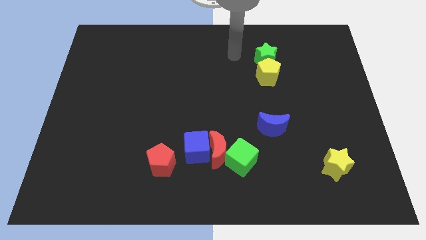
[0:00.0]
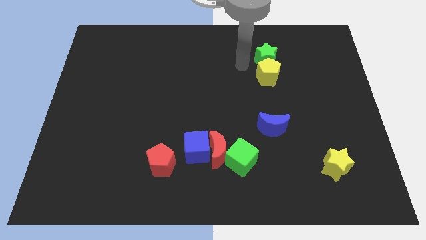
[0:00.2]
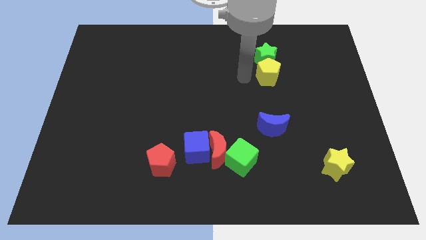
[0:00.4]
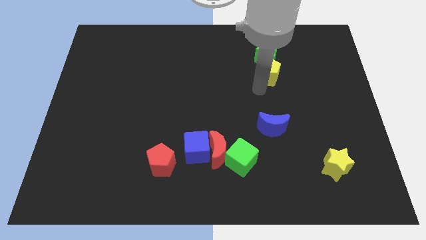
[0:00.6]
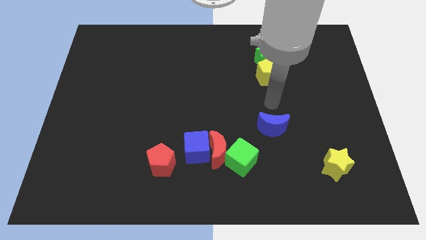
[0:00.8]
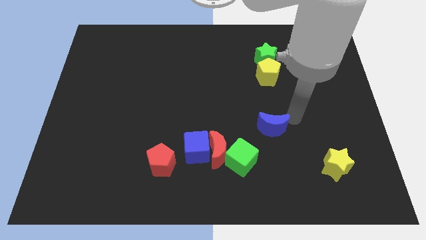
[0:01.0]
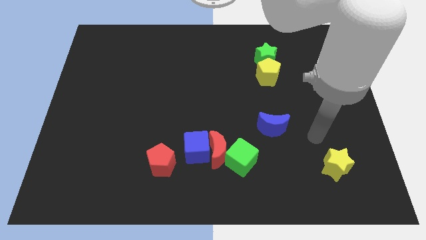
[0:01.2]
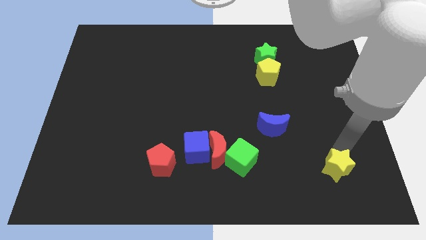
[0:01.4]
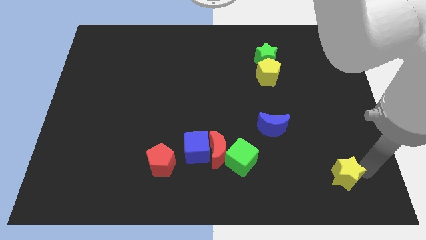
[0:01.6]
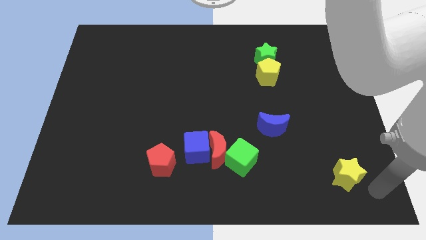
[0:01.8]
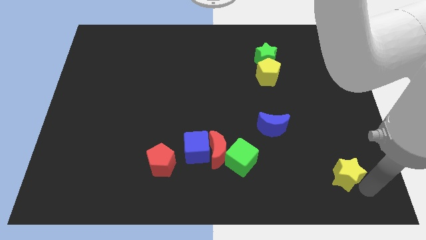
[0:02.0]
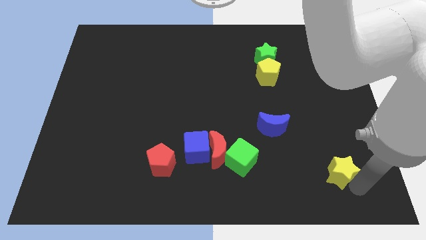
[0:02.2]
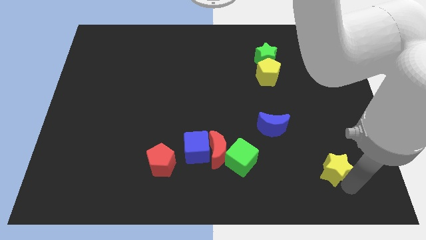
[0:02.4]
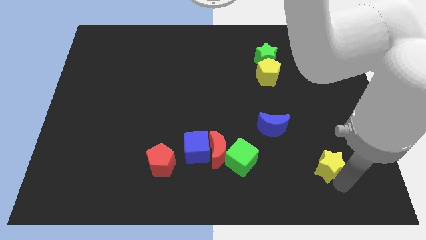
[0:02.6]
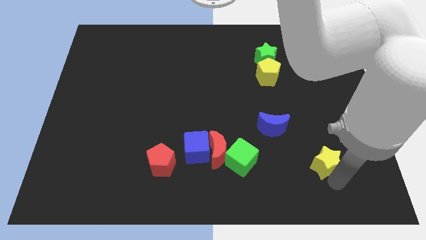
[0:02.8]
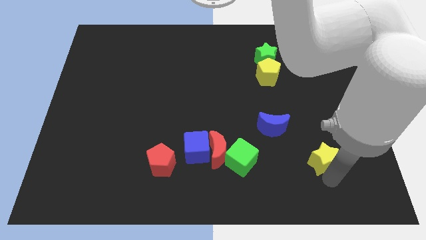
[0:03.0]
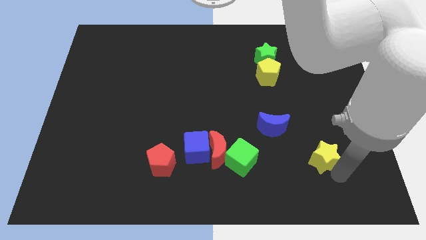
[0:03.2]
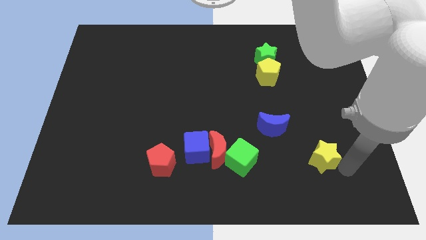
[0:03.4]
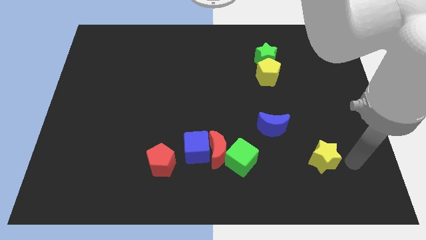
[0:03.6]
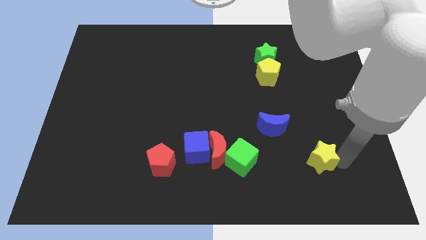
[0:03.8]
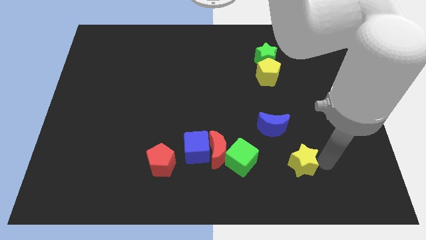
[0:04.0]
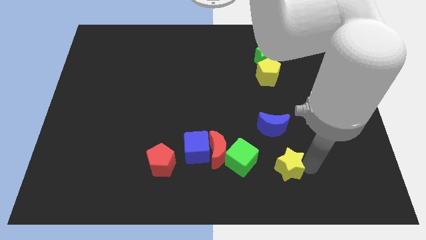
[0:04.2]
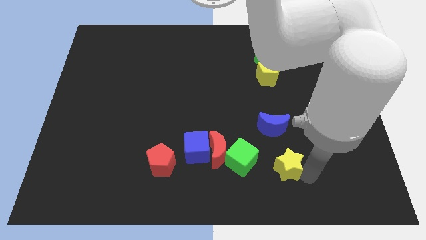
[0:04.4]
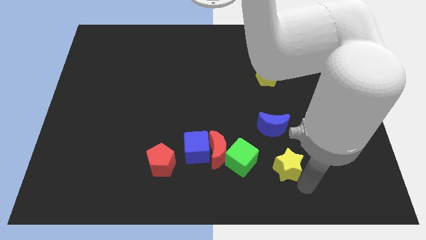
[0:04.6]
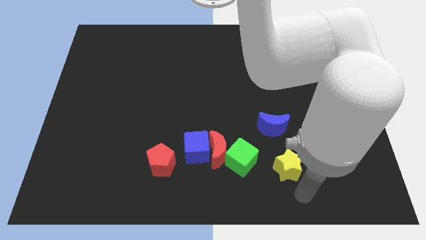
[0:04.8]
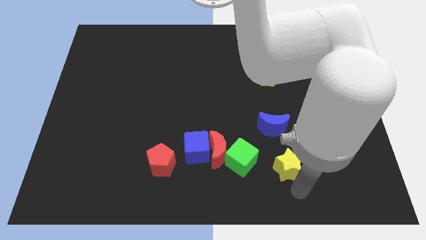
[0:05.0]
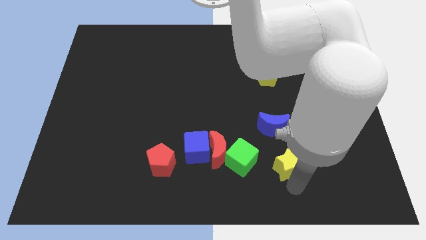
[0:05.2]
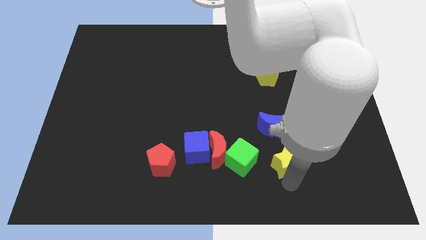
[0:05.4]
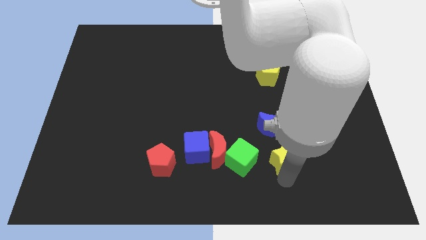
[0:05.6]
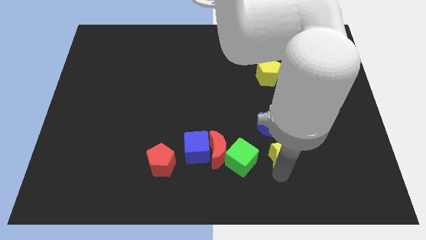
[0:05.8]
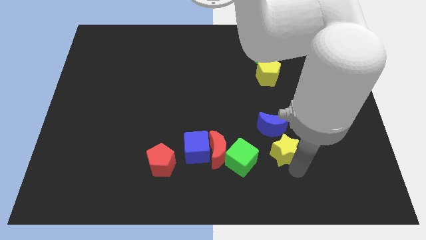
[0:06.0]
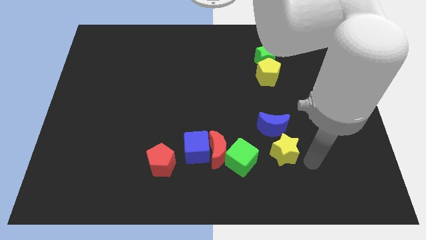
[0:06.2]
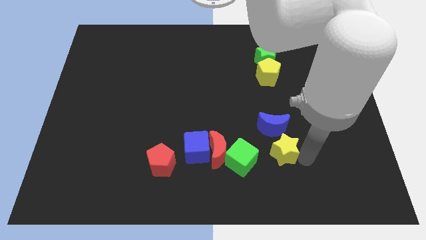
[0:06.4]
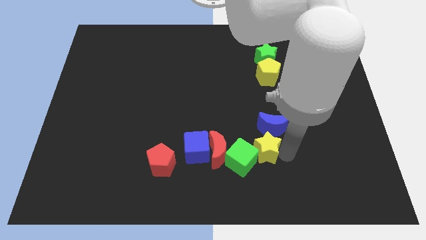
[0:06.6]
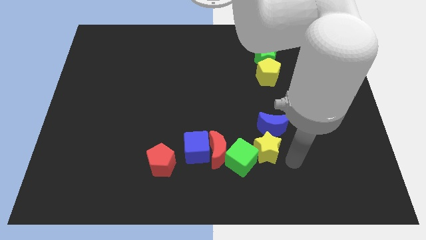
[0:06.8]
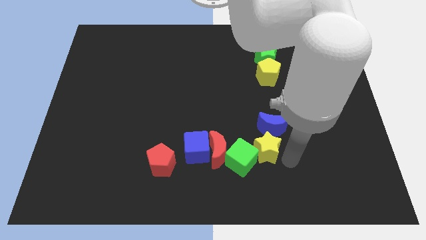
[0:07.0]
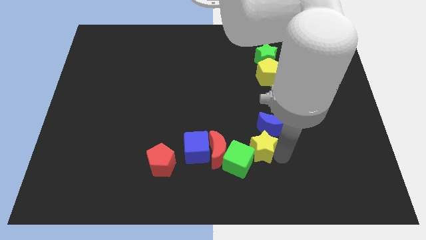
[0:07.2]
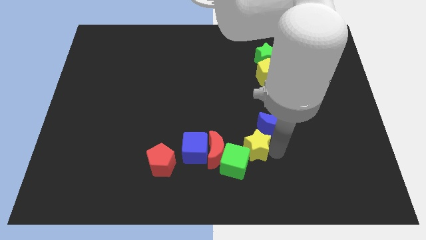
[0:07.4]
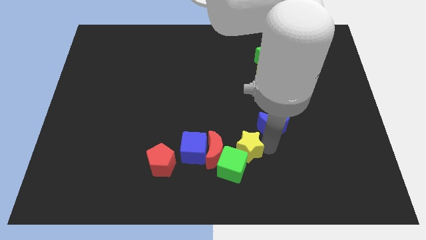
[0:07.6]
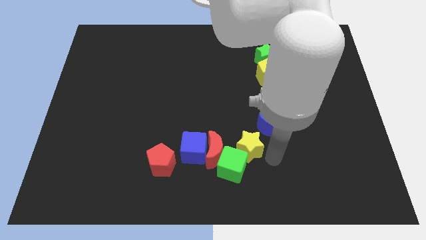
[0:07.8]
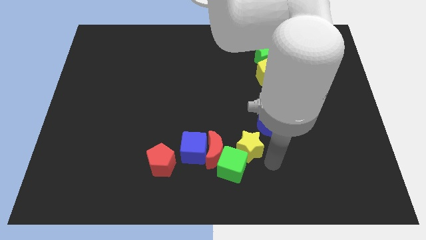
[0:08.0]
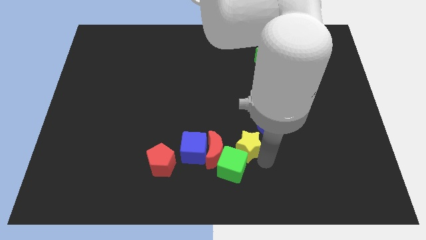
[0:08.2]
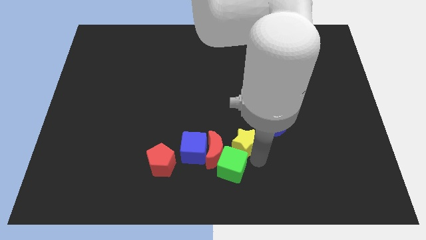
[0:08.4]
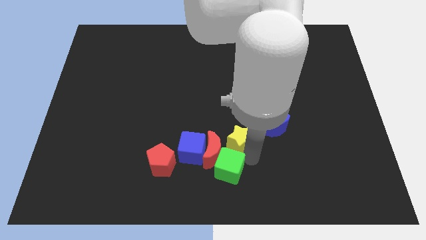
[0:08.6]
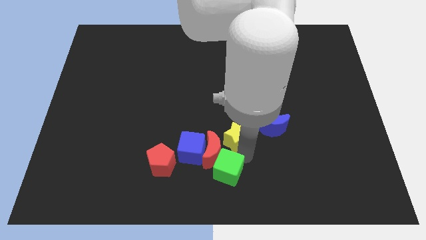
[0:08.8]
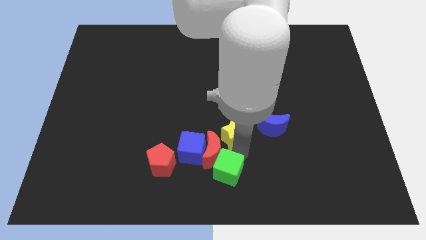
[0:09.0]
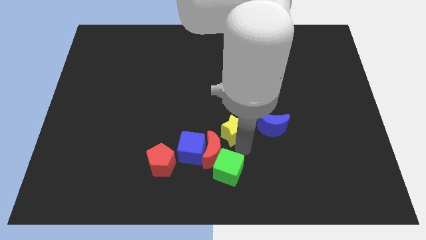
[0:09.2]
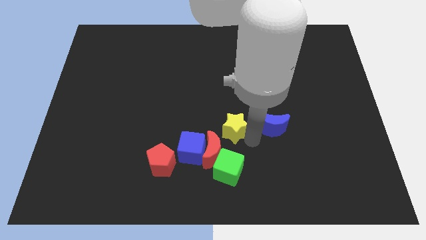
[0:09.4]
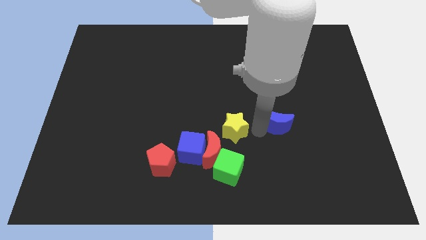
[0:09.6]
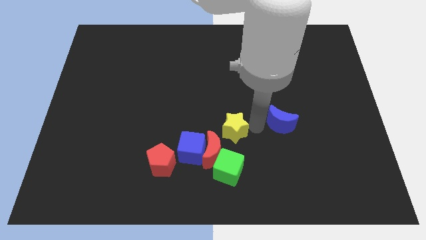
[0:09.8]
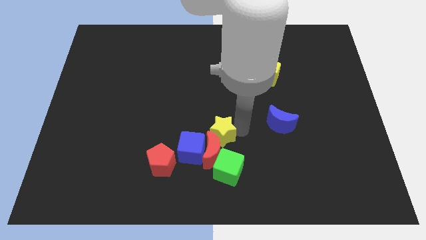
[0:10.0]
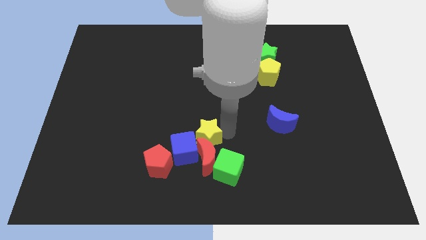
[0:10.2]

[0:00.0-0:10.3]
push the yellow star towards the blue cube

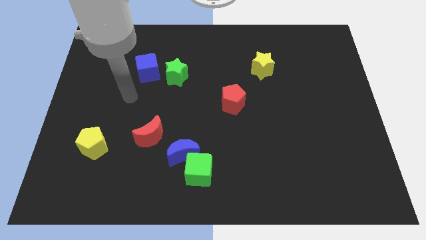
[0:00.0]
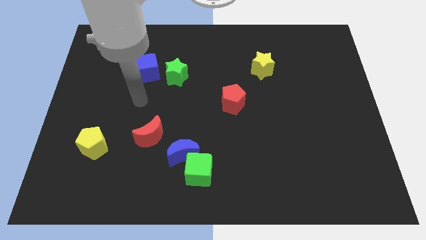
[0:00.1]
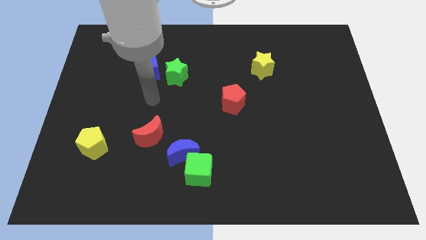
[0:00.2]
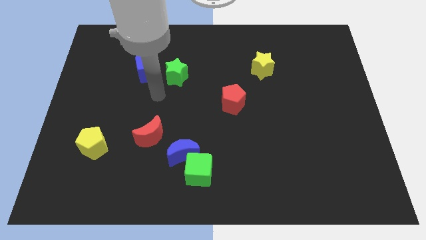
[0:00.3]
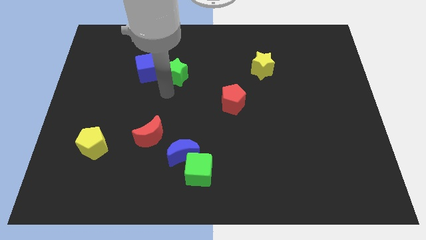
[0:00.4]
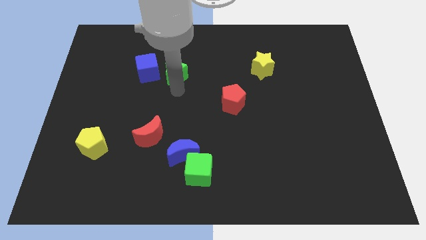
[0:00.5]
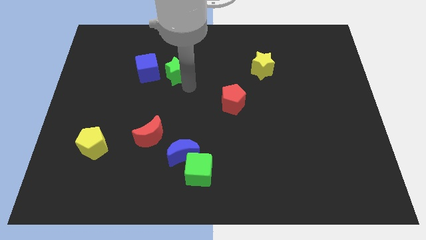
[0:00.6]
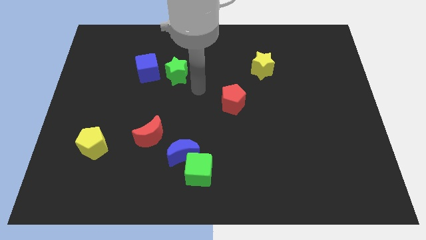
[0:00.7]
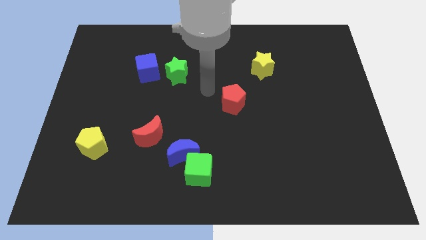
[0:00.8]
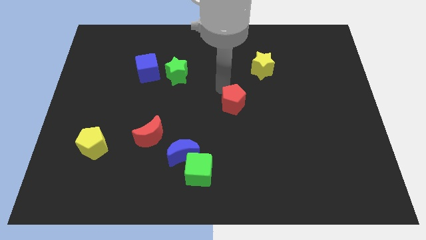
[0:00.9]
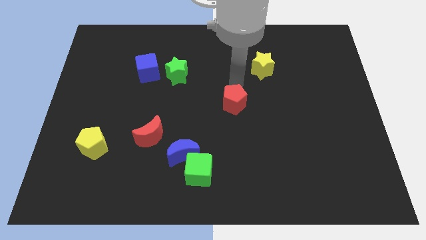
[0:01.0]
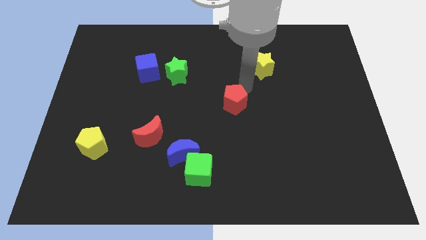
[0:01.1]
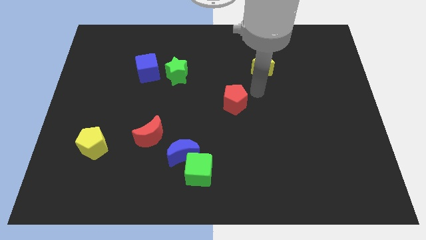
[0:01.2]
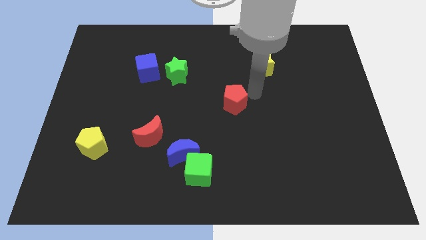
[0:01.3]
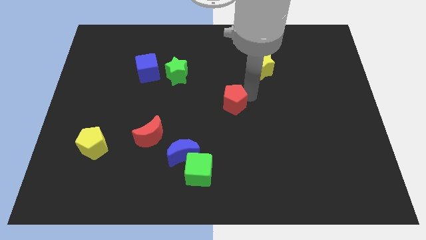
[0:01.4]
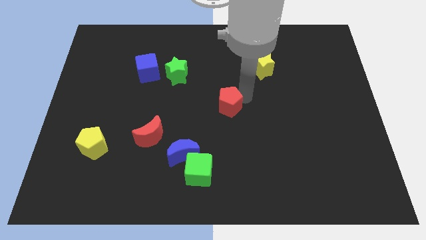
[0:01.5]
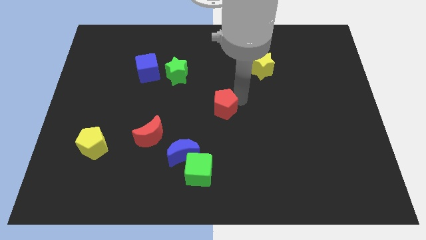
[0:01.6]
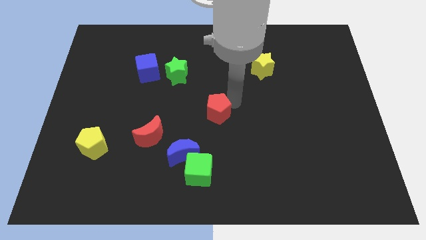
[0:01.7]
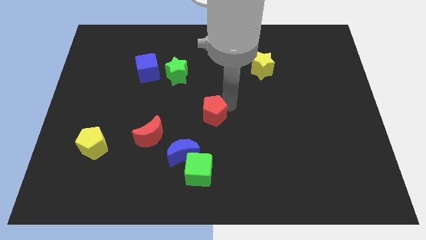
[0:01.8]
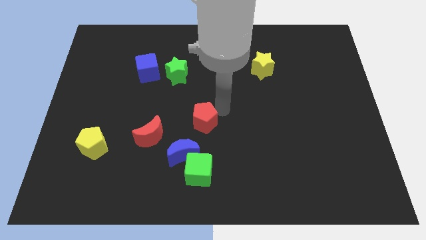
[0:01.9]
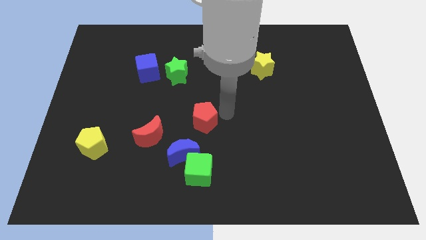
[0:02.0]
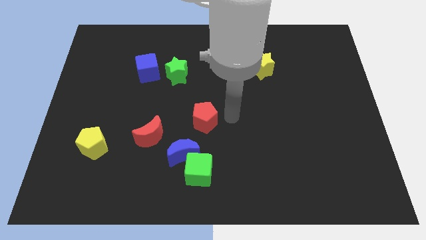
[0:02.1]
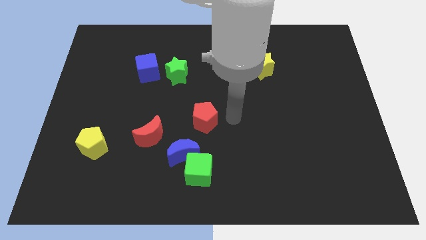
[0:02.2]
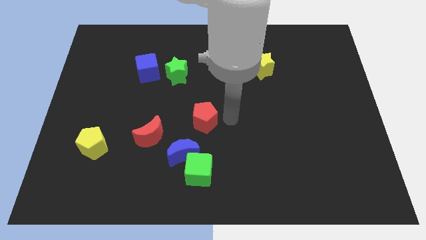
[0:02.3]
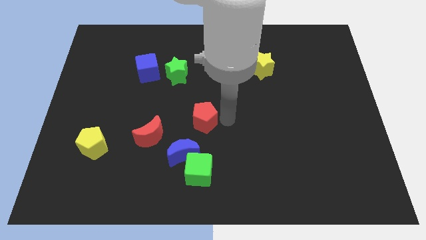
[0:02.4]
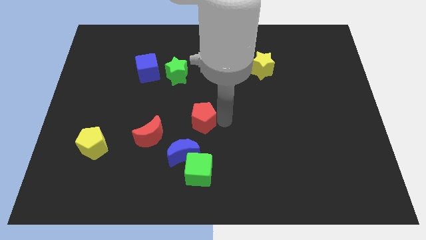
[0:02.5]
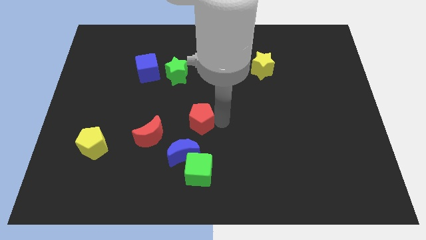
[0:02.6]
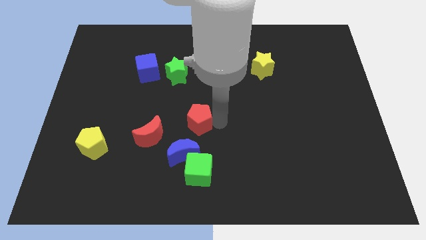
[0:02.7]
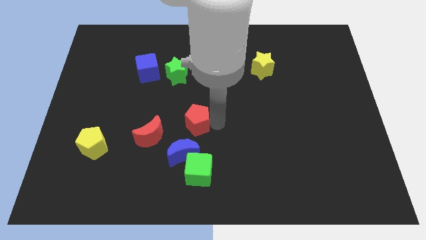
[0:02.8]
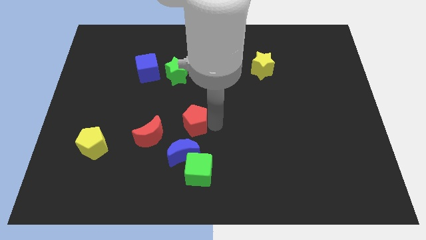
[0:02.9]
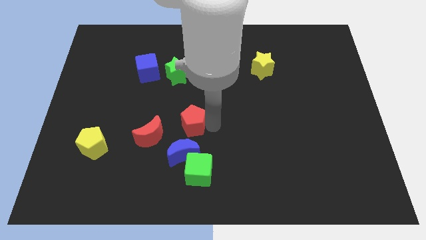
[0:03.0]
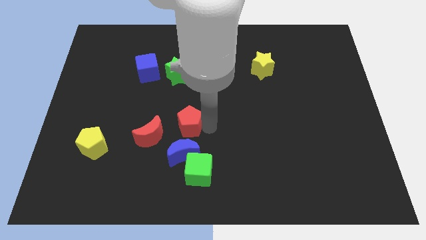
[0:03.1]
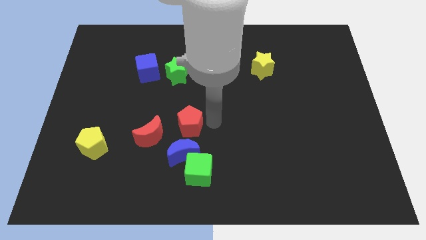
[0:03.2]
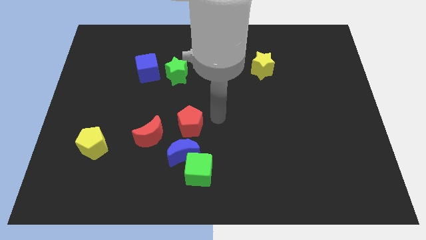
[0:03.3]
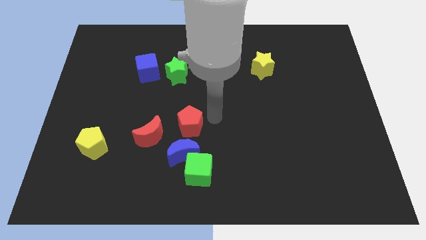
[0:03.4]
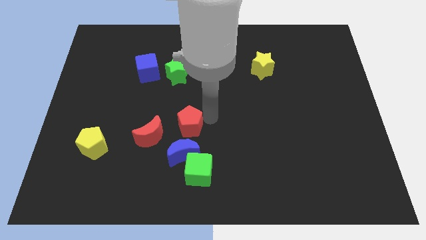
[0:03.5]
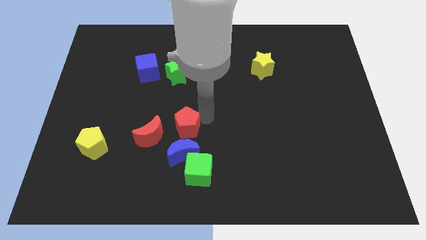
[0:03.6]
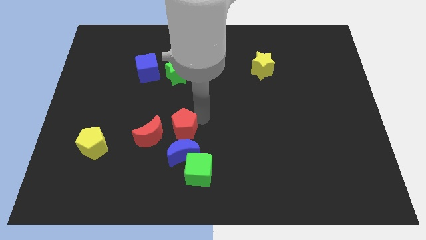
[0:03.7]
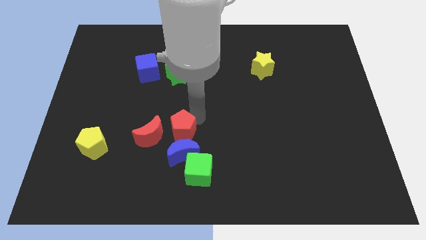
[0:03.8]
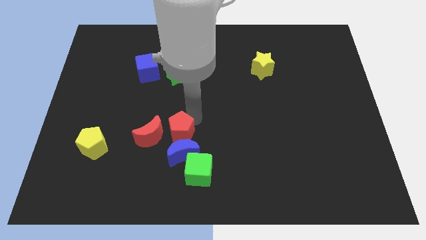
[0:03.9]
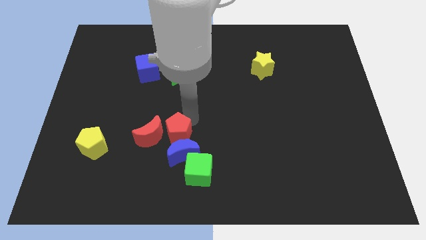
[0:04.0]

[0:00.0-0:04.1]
move the red pentagon close to the red moon
